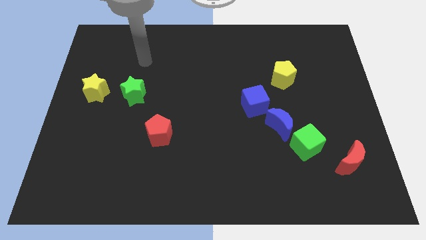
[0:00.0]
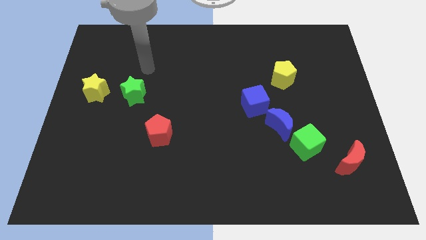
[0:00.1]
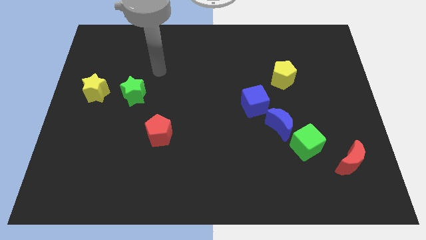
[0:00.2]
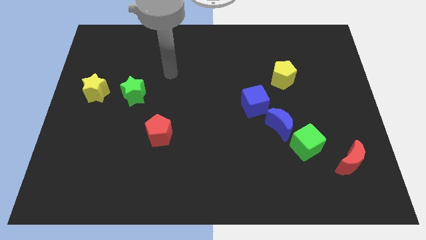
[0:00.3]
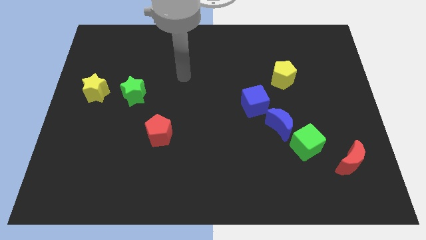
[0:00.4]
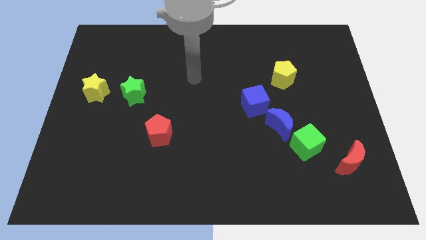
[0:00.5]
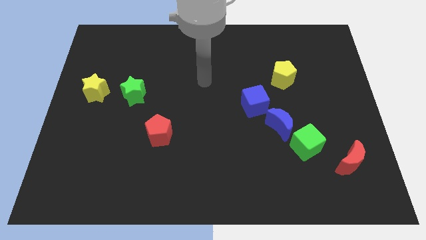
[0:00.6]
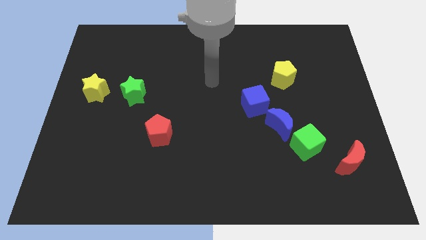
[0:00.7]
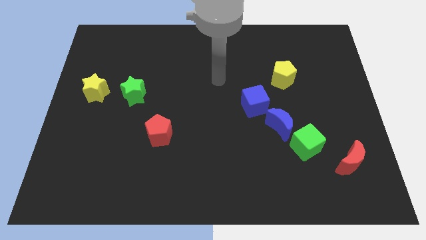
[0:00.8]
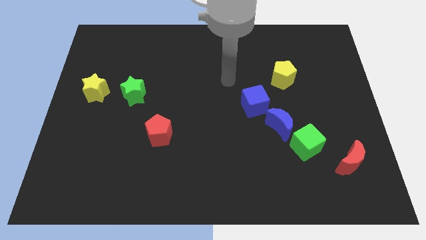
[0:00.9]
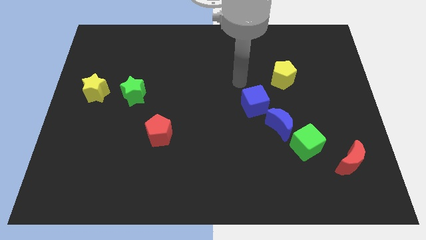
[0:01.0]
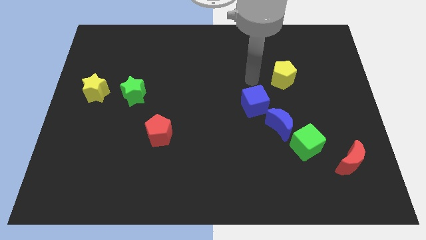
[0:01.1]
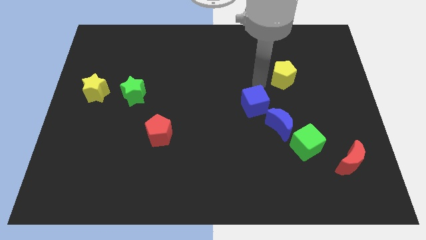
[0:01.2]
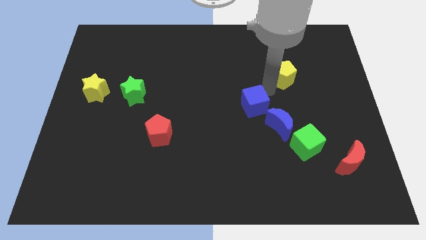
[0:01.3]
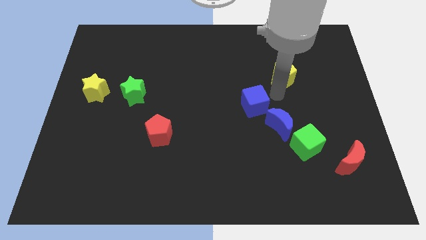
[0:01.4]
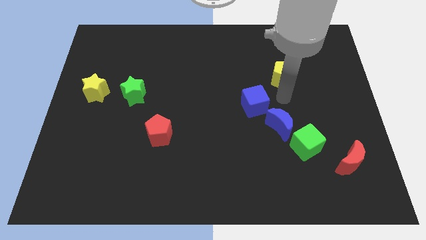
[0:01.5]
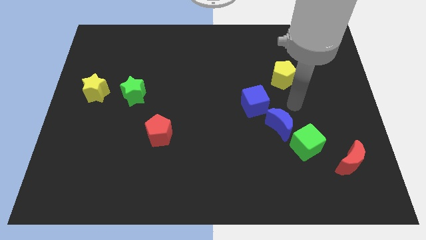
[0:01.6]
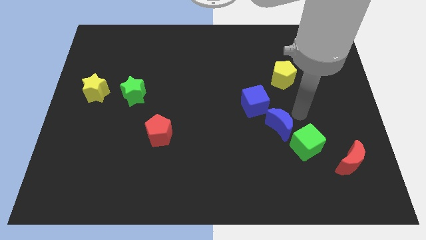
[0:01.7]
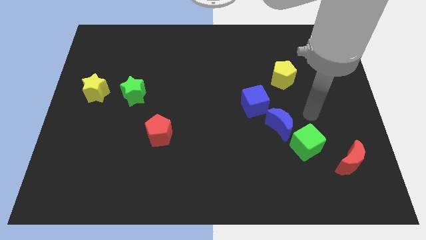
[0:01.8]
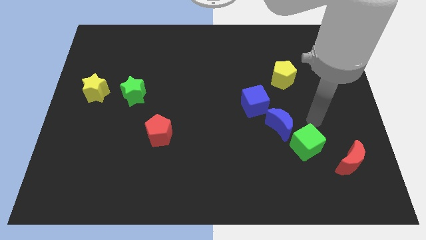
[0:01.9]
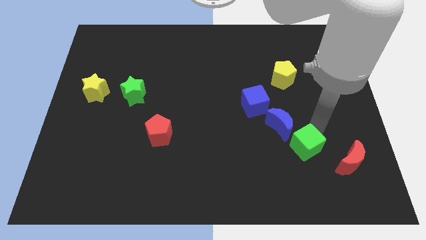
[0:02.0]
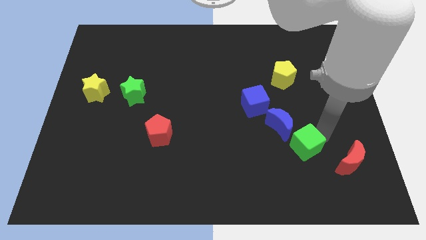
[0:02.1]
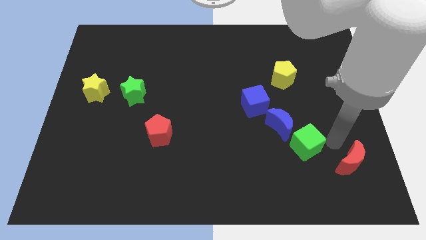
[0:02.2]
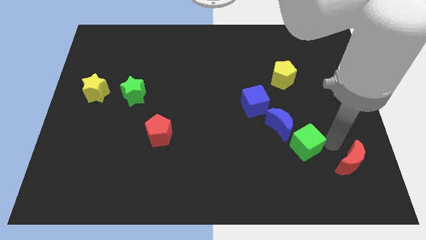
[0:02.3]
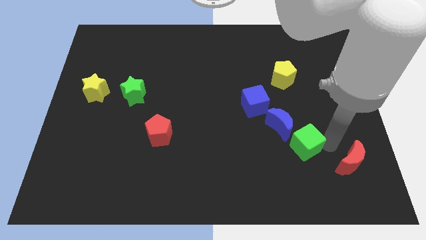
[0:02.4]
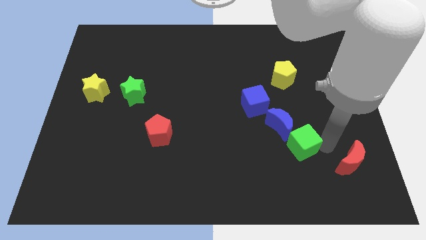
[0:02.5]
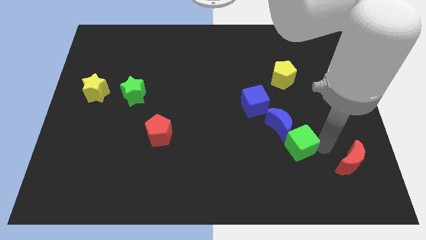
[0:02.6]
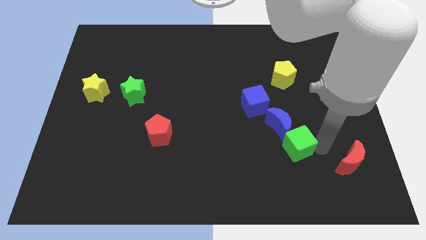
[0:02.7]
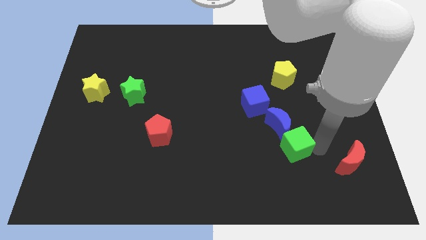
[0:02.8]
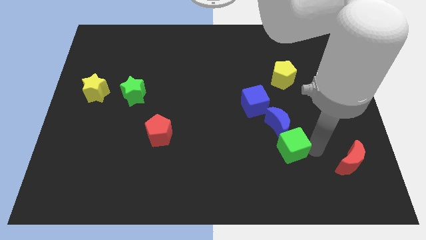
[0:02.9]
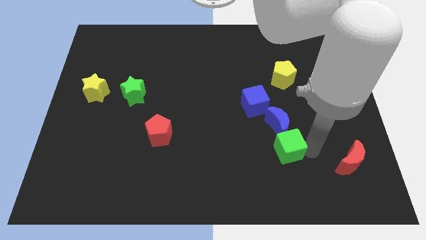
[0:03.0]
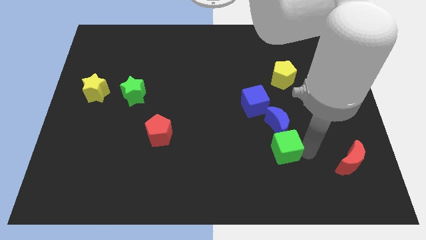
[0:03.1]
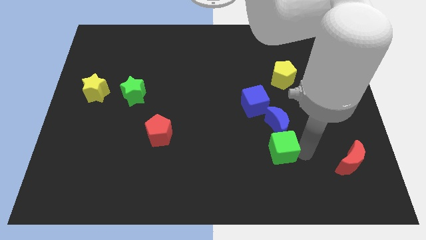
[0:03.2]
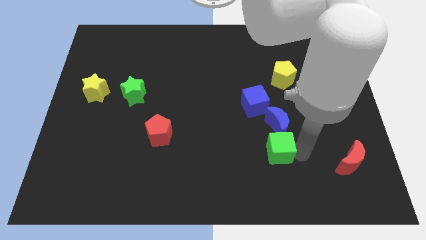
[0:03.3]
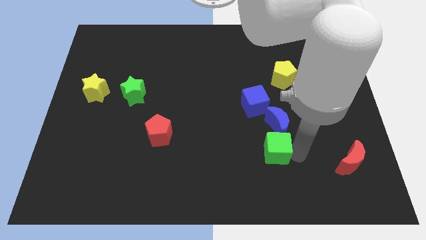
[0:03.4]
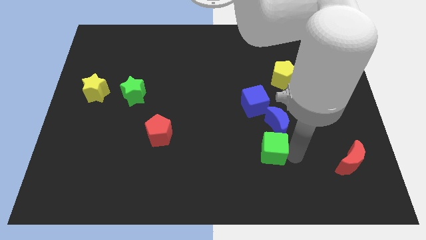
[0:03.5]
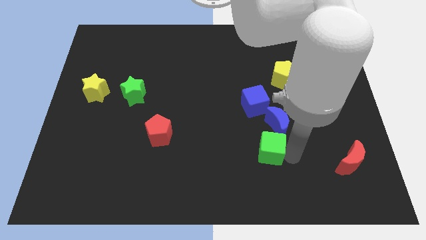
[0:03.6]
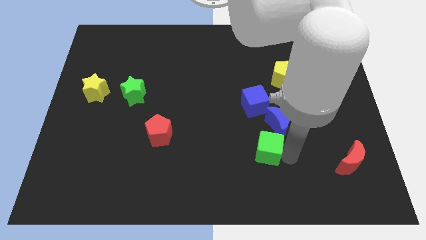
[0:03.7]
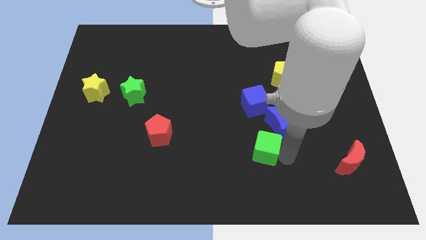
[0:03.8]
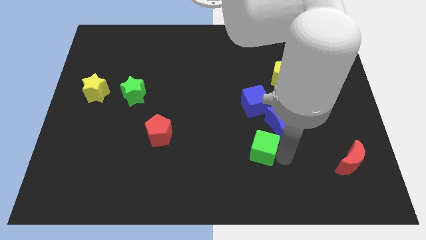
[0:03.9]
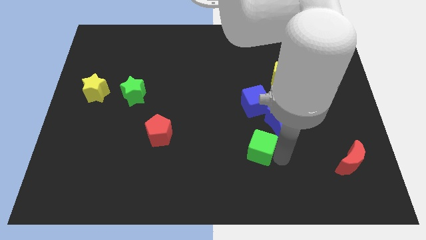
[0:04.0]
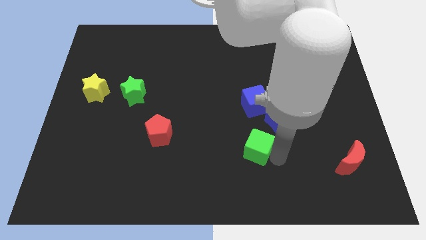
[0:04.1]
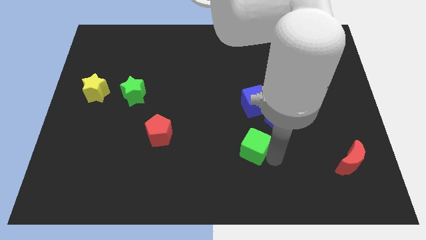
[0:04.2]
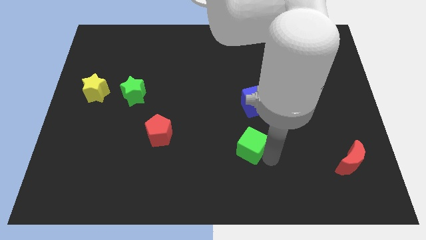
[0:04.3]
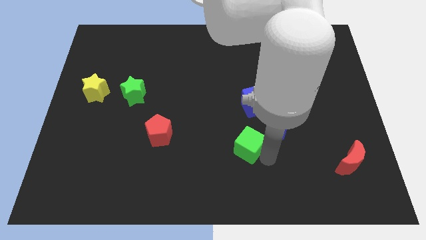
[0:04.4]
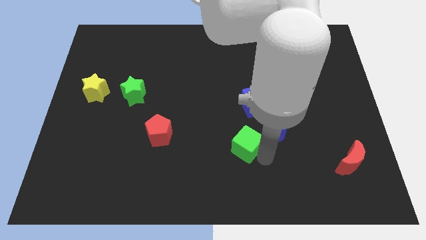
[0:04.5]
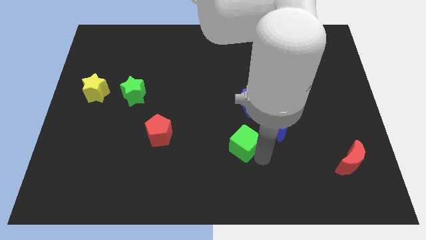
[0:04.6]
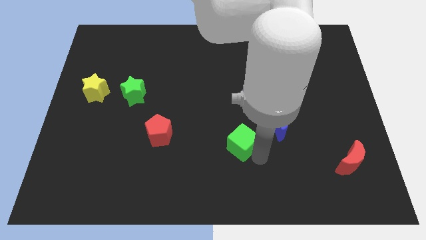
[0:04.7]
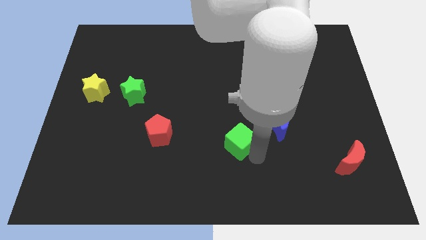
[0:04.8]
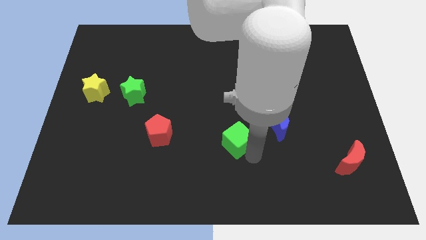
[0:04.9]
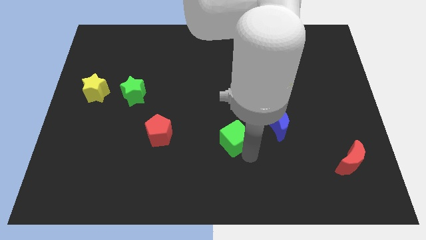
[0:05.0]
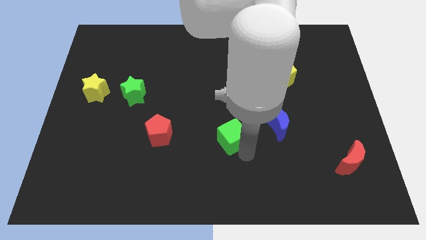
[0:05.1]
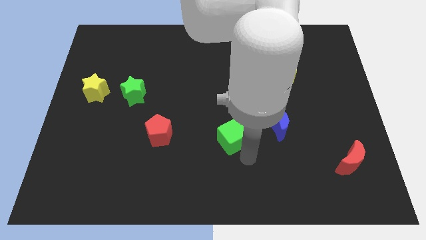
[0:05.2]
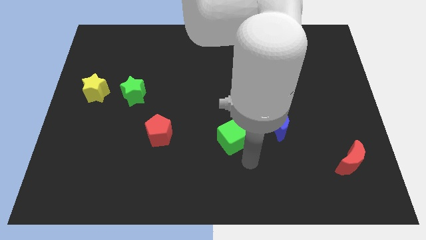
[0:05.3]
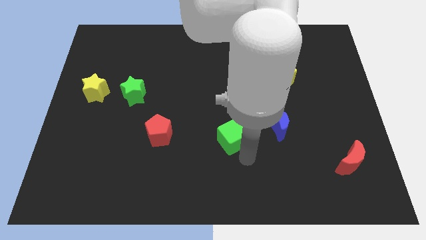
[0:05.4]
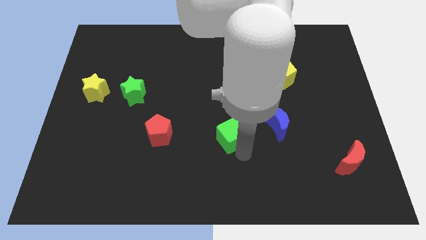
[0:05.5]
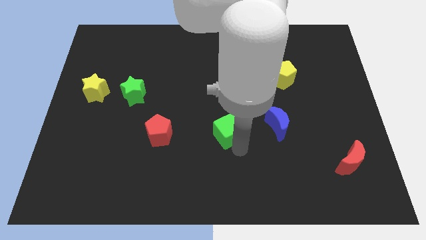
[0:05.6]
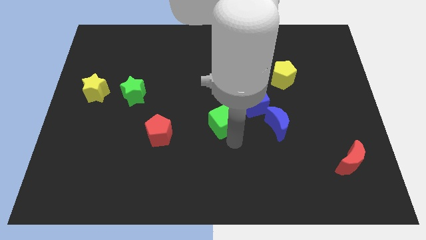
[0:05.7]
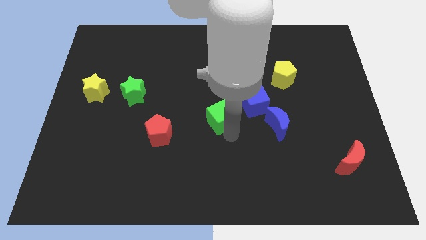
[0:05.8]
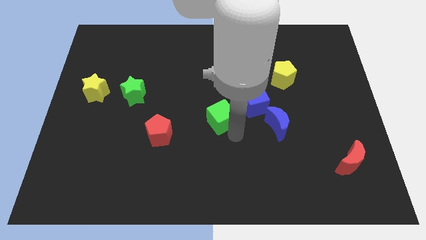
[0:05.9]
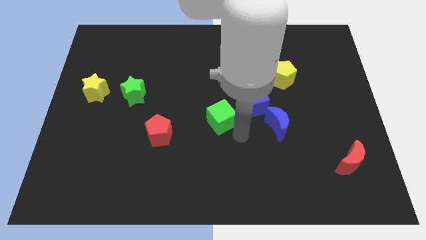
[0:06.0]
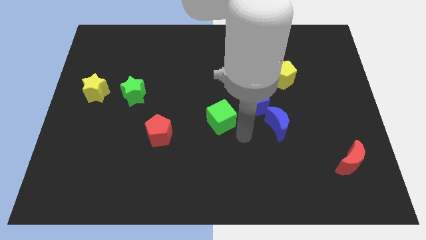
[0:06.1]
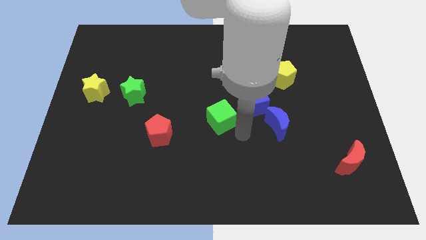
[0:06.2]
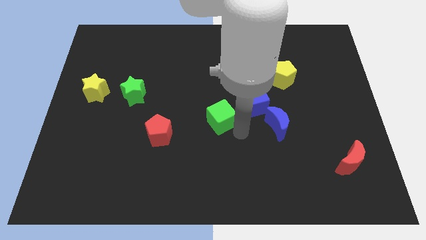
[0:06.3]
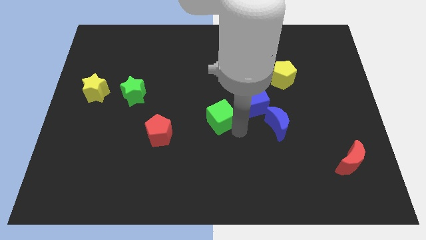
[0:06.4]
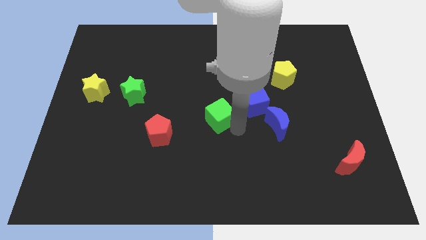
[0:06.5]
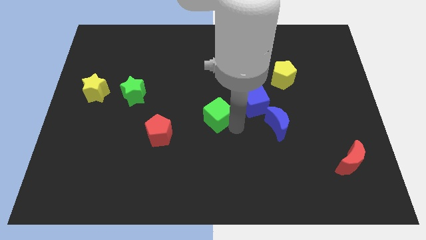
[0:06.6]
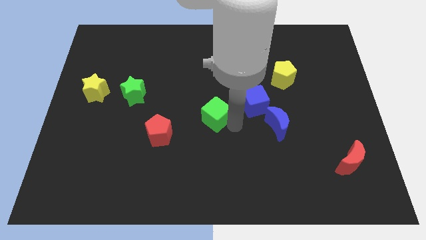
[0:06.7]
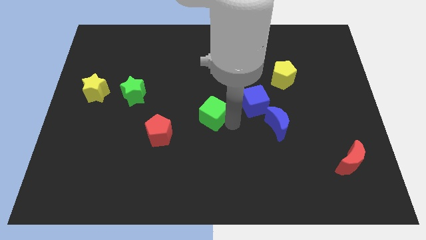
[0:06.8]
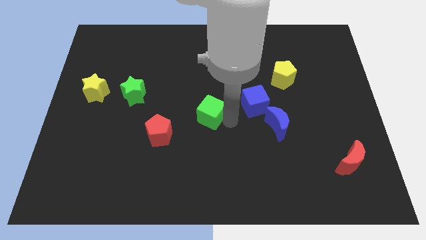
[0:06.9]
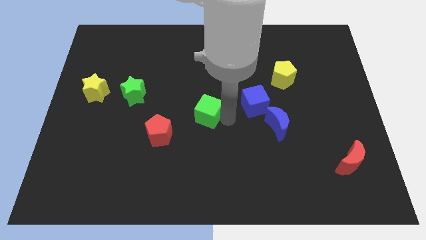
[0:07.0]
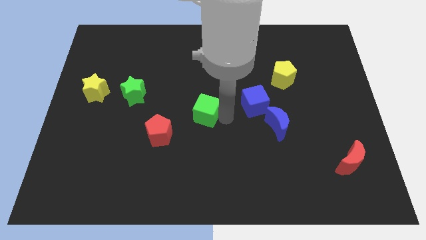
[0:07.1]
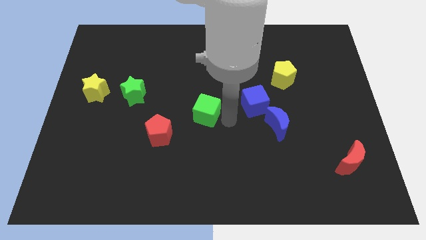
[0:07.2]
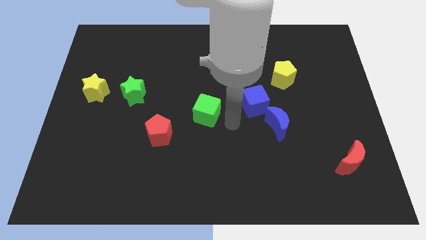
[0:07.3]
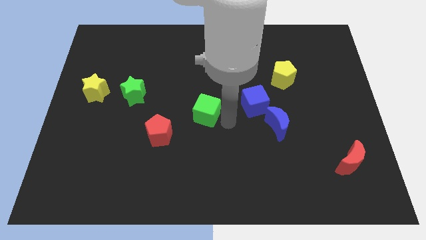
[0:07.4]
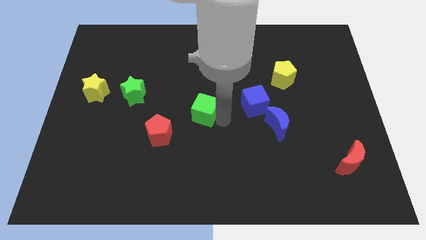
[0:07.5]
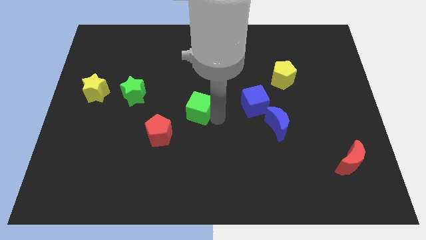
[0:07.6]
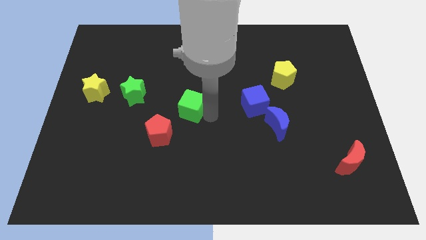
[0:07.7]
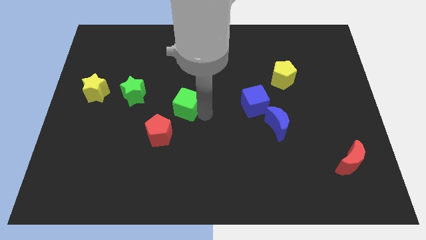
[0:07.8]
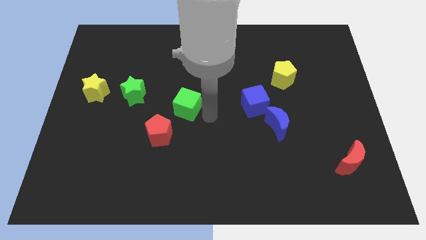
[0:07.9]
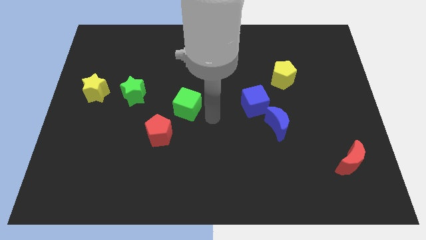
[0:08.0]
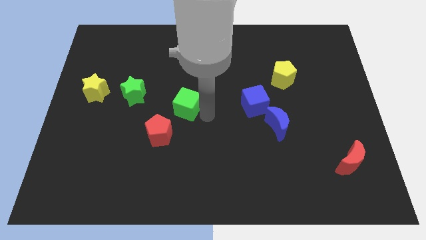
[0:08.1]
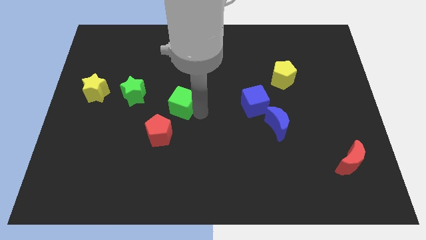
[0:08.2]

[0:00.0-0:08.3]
put the green cube to the top side of the red pentagon
